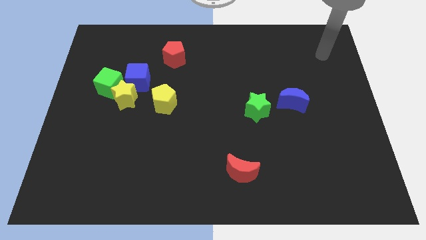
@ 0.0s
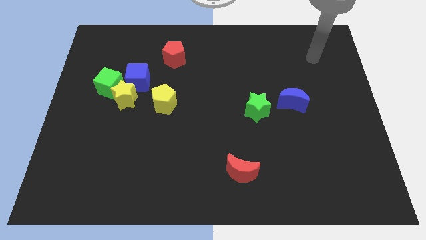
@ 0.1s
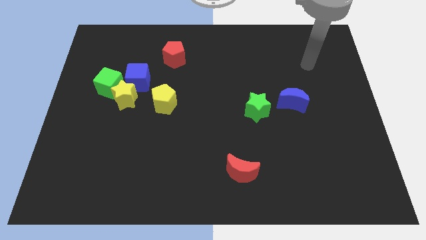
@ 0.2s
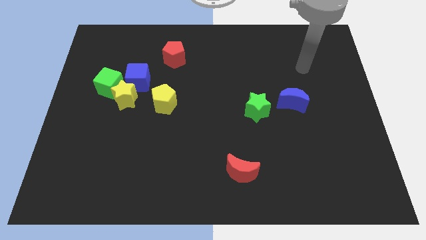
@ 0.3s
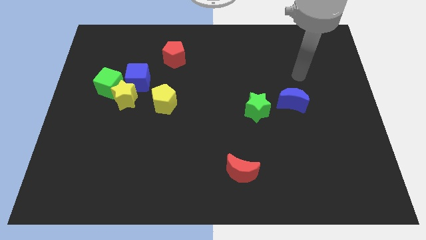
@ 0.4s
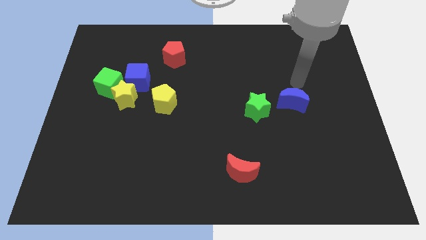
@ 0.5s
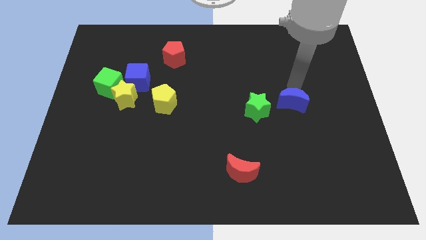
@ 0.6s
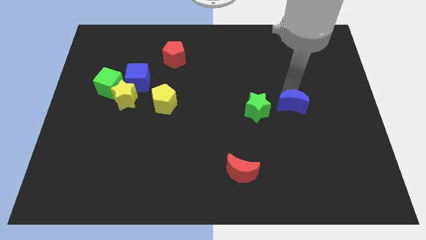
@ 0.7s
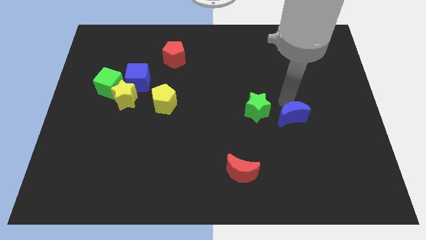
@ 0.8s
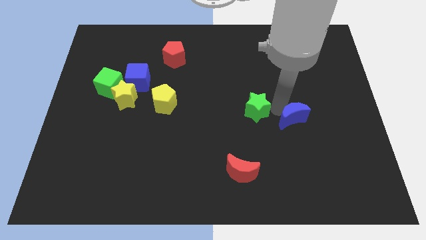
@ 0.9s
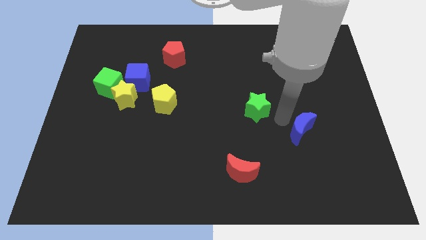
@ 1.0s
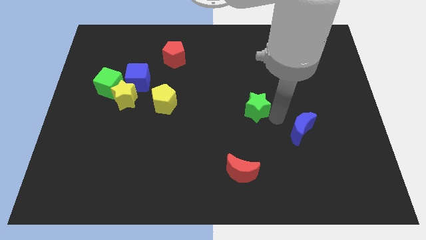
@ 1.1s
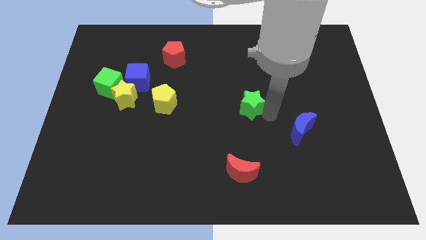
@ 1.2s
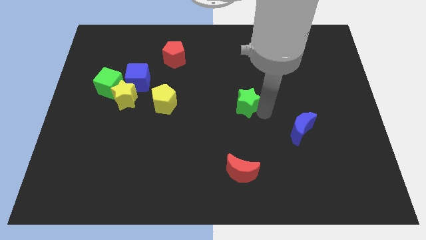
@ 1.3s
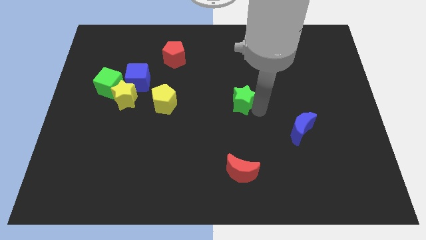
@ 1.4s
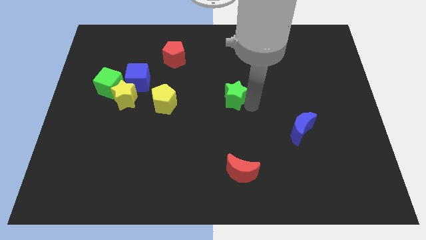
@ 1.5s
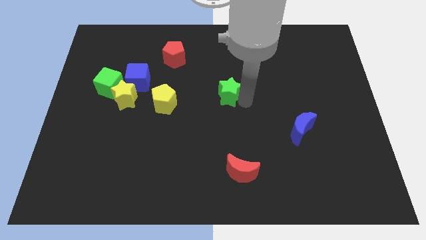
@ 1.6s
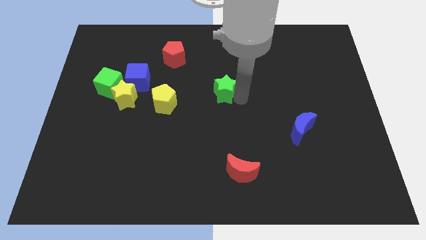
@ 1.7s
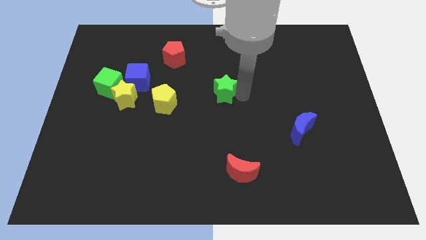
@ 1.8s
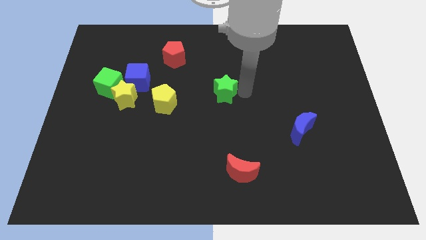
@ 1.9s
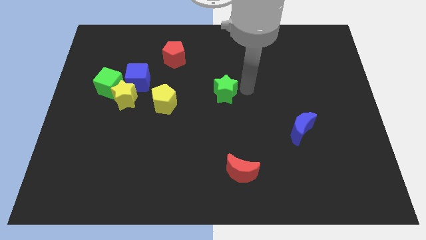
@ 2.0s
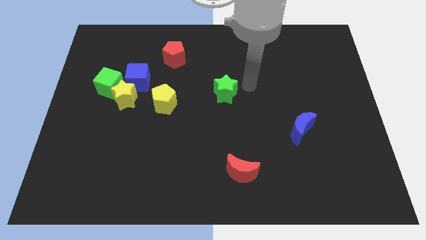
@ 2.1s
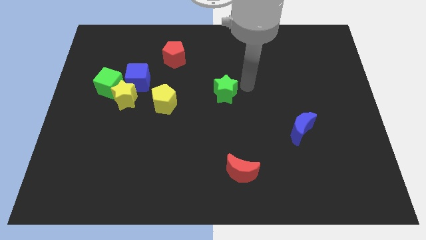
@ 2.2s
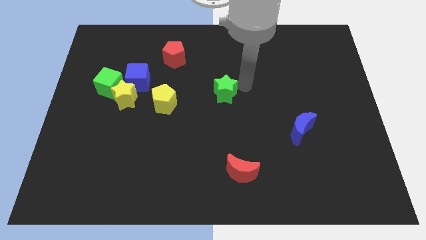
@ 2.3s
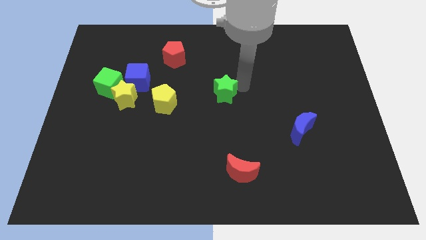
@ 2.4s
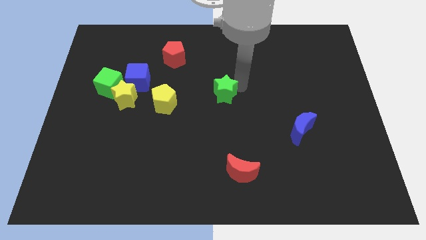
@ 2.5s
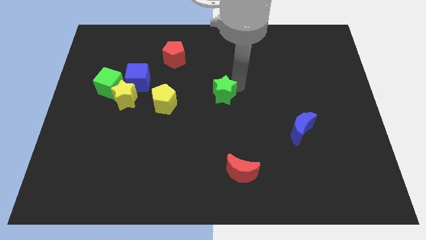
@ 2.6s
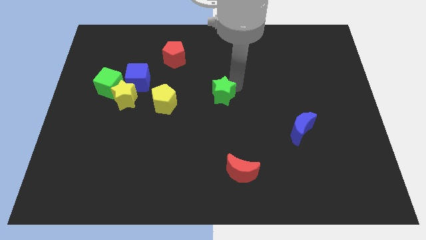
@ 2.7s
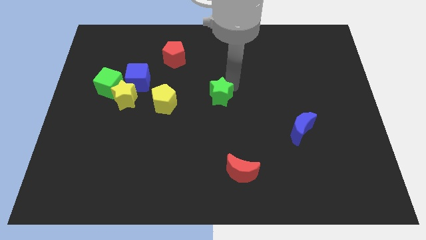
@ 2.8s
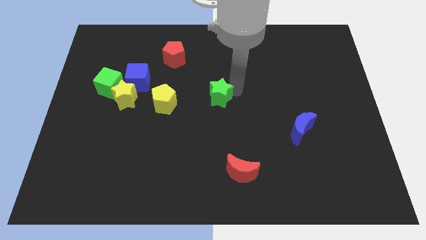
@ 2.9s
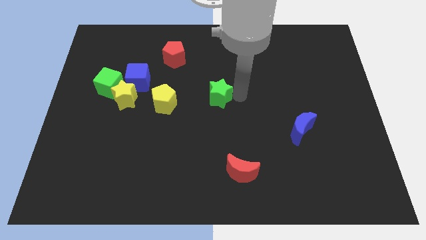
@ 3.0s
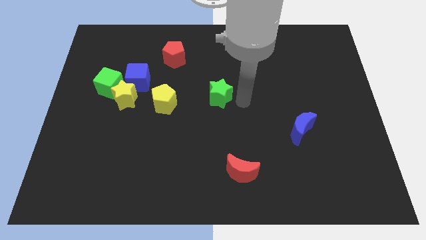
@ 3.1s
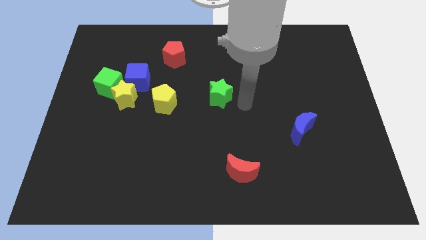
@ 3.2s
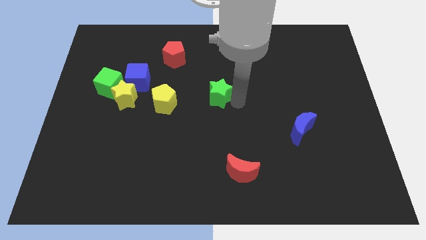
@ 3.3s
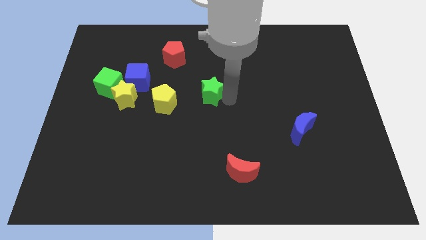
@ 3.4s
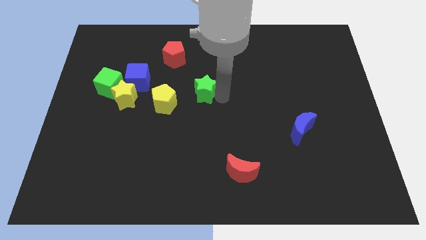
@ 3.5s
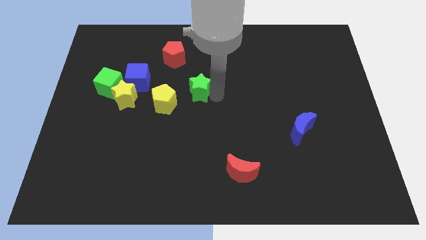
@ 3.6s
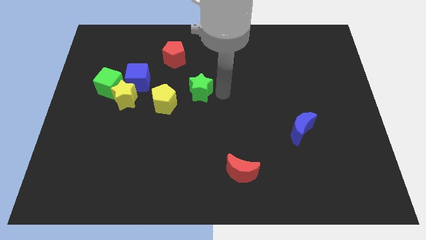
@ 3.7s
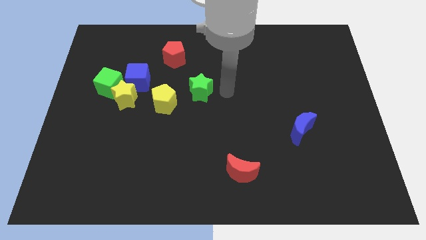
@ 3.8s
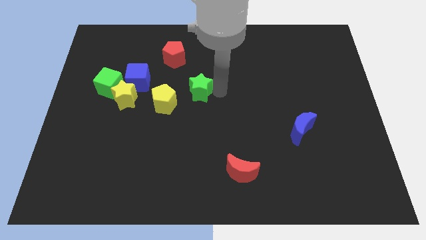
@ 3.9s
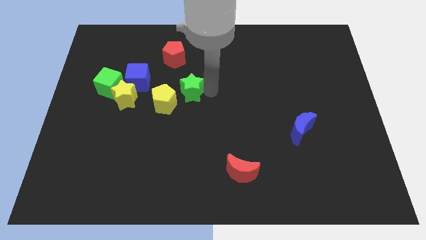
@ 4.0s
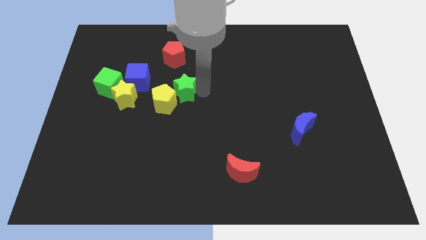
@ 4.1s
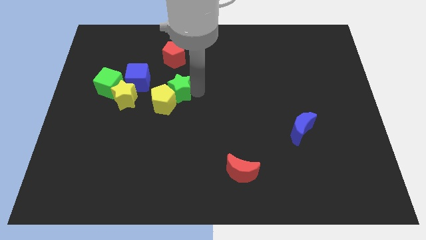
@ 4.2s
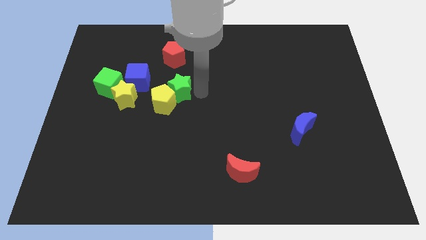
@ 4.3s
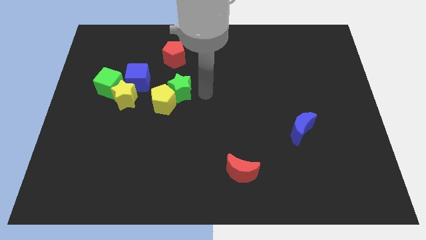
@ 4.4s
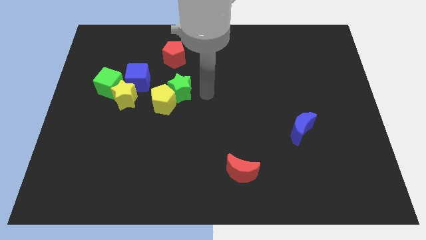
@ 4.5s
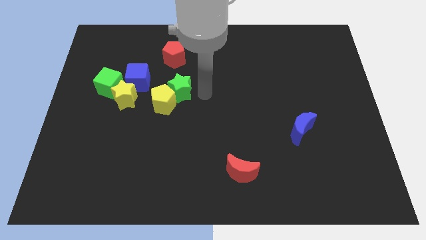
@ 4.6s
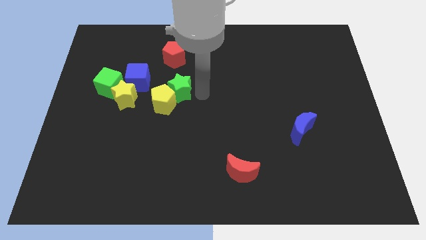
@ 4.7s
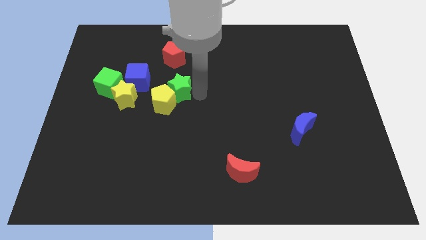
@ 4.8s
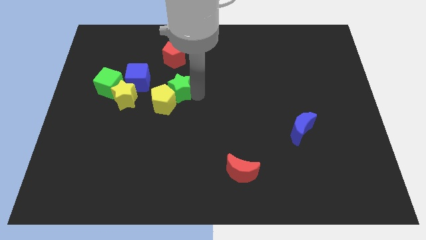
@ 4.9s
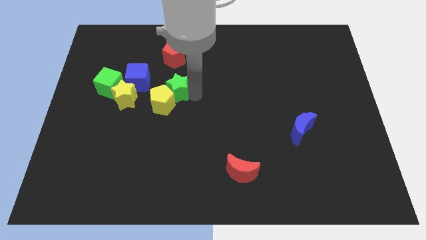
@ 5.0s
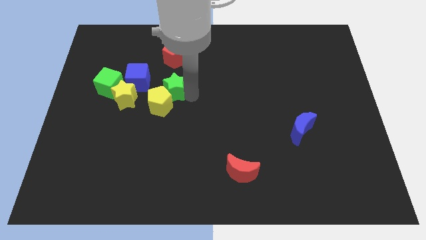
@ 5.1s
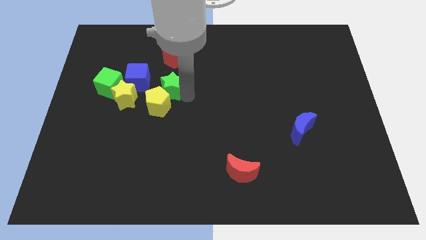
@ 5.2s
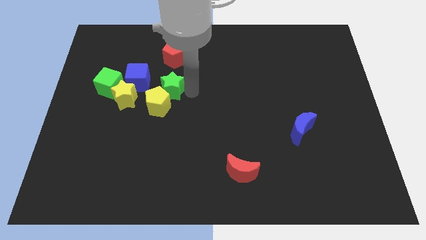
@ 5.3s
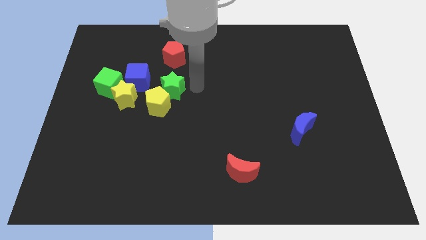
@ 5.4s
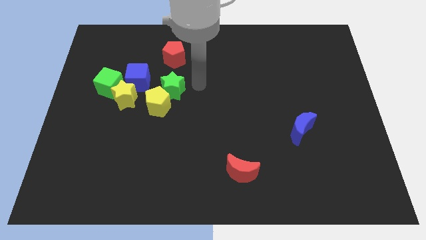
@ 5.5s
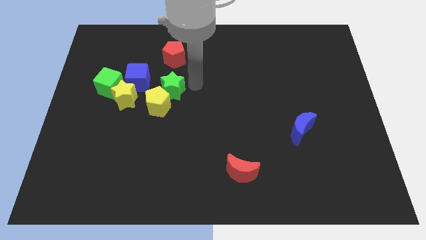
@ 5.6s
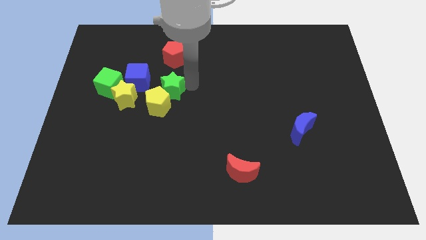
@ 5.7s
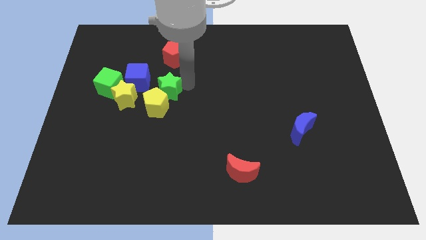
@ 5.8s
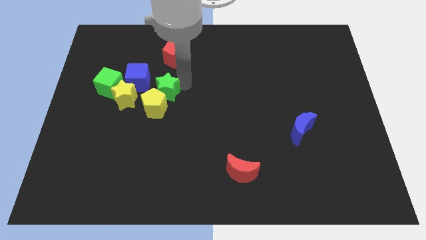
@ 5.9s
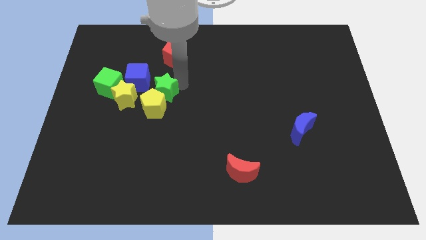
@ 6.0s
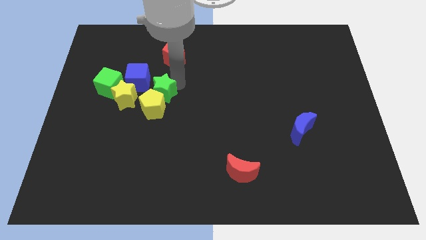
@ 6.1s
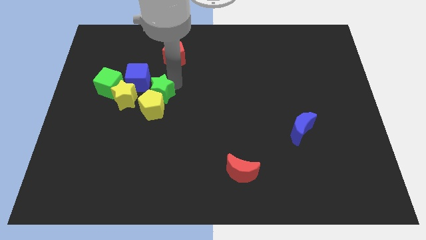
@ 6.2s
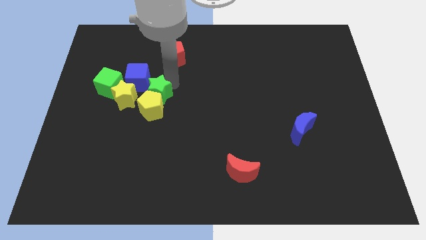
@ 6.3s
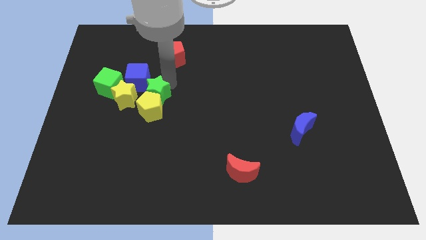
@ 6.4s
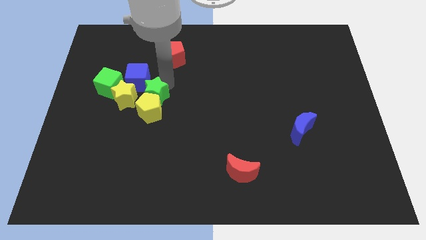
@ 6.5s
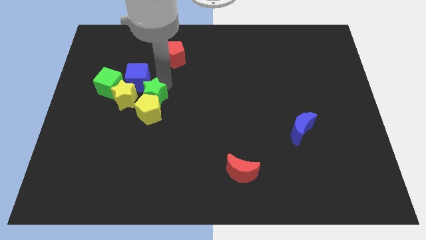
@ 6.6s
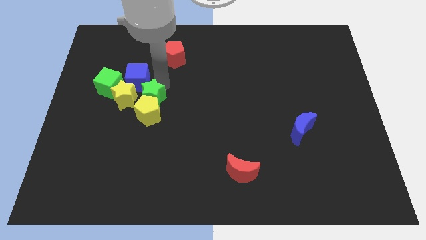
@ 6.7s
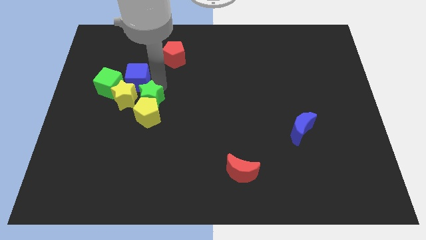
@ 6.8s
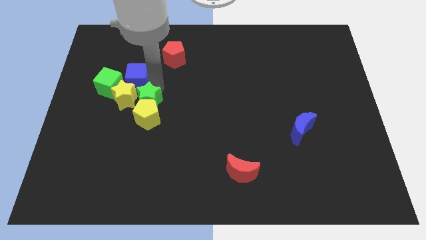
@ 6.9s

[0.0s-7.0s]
move the green star next to the yellow star
